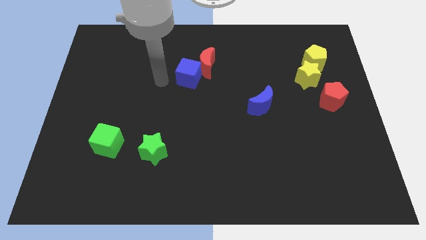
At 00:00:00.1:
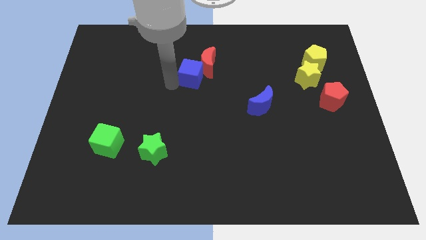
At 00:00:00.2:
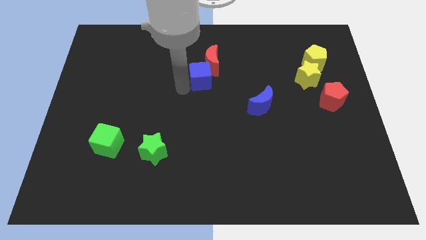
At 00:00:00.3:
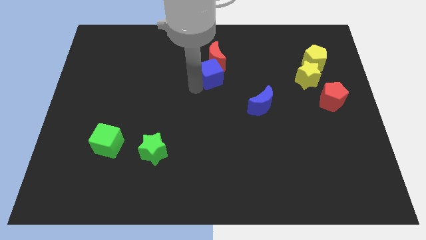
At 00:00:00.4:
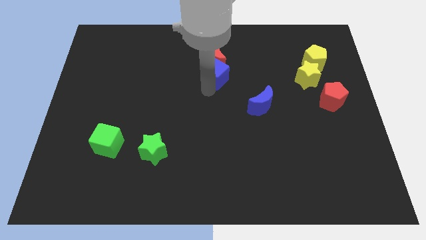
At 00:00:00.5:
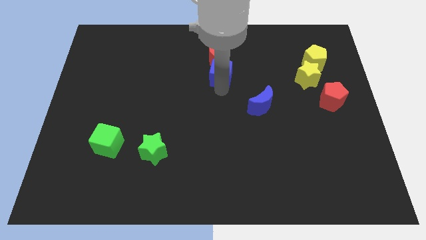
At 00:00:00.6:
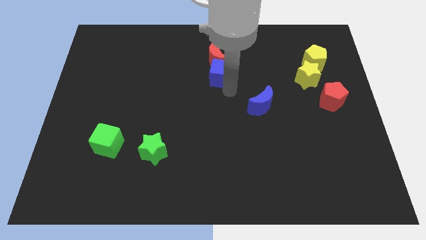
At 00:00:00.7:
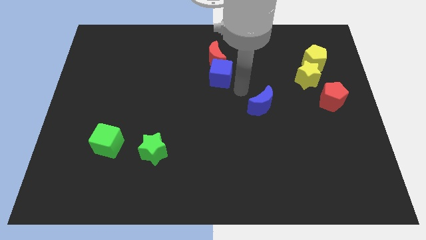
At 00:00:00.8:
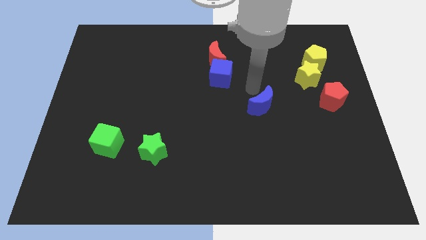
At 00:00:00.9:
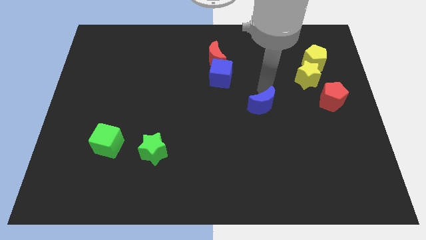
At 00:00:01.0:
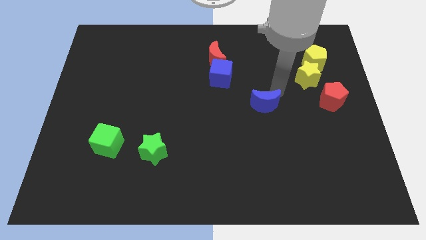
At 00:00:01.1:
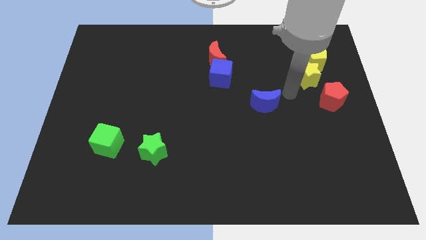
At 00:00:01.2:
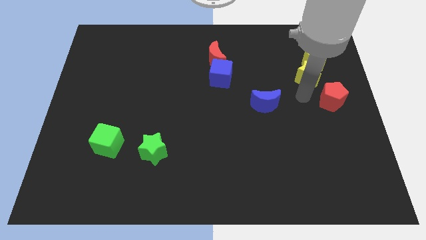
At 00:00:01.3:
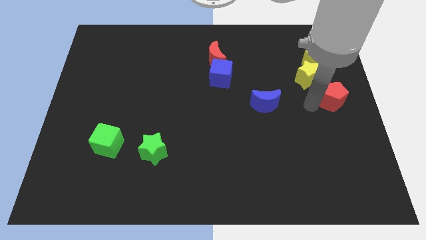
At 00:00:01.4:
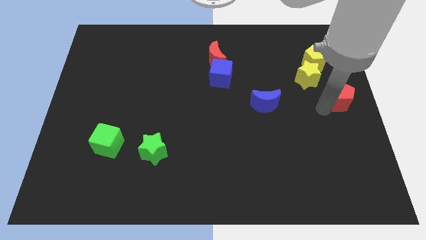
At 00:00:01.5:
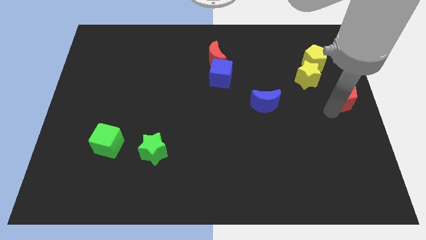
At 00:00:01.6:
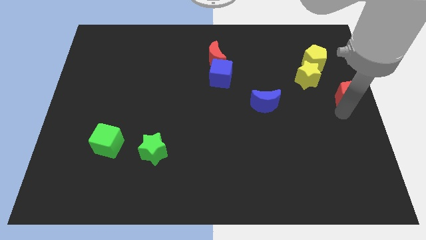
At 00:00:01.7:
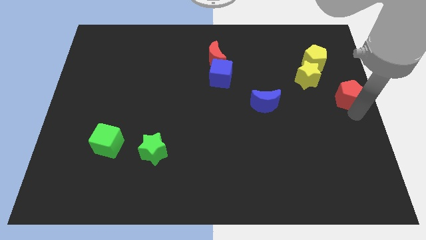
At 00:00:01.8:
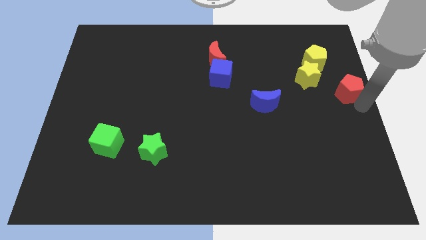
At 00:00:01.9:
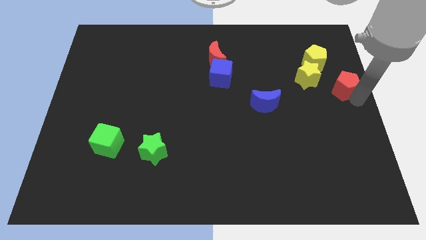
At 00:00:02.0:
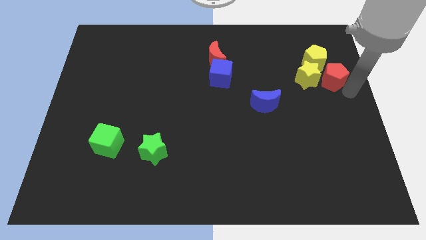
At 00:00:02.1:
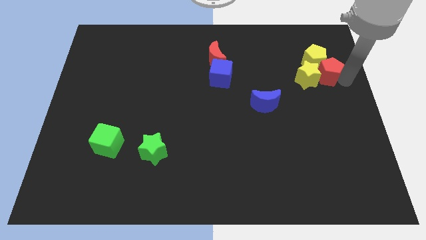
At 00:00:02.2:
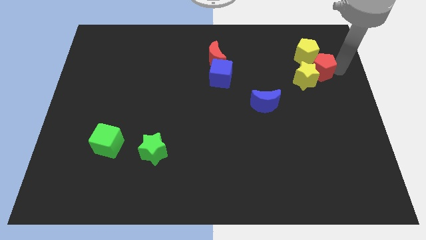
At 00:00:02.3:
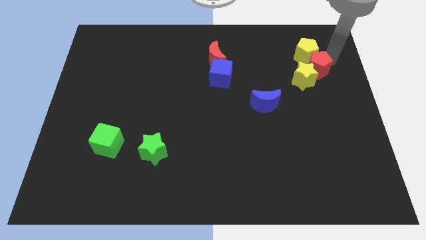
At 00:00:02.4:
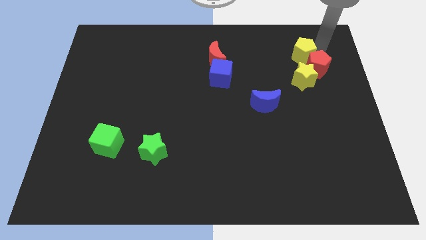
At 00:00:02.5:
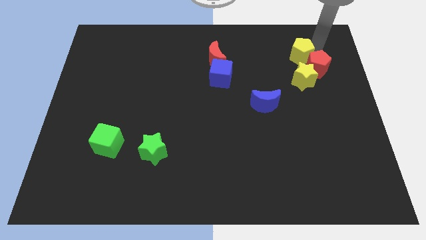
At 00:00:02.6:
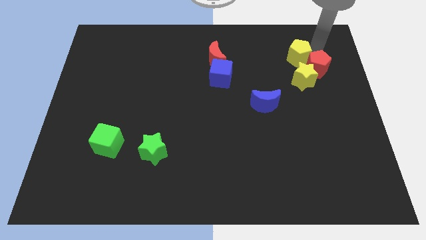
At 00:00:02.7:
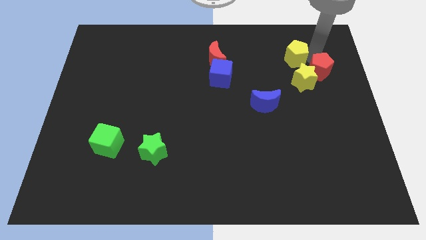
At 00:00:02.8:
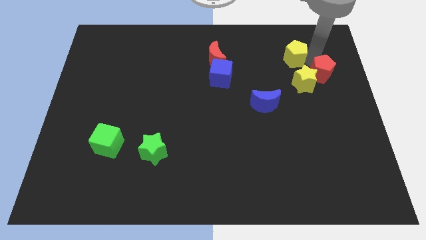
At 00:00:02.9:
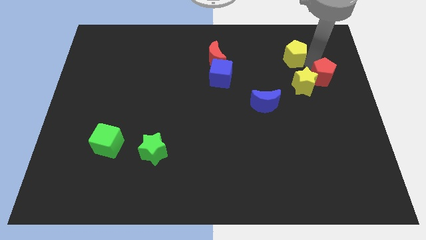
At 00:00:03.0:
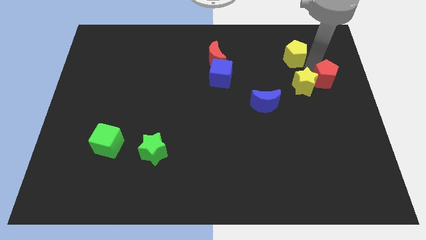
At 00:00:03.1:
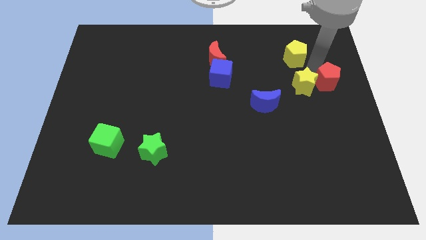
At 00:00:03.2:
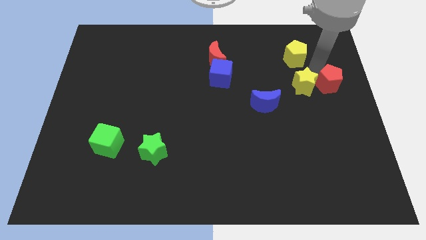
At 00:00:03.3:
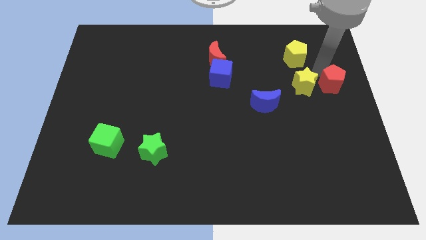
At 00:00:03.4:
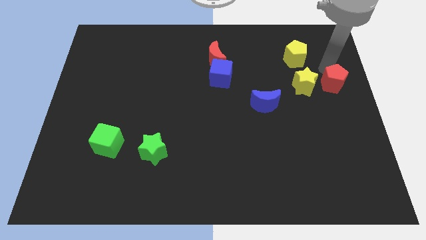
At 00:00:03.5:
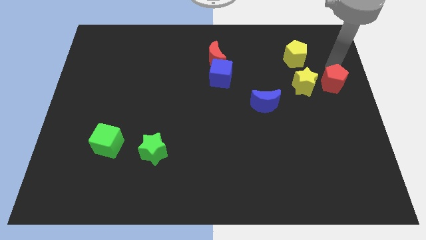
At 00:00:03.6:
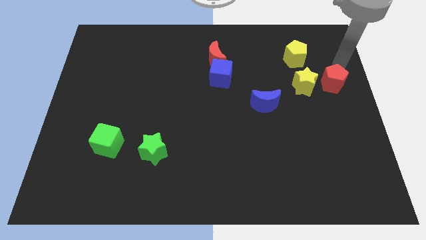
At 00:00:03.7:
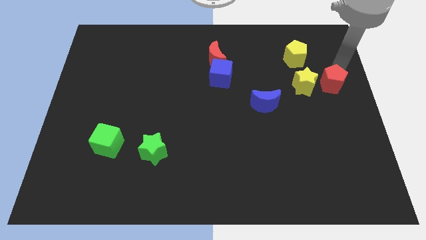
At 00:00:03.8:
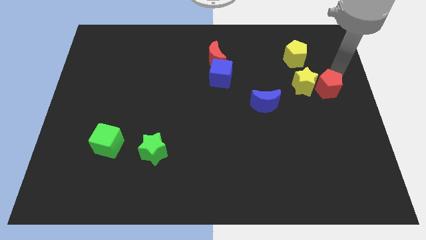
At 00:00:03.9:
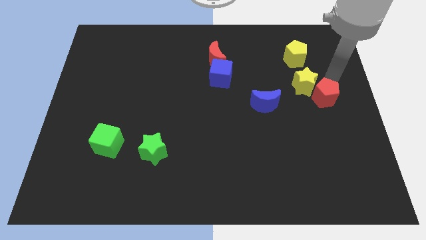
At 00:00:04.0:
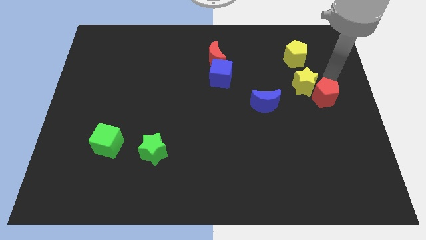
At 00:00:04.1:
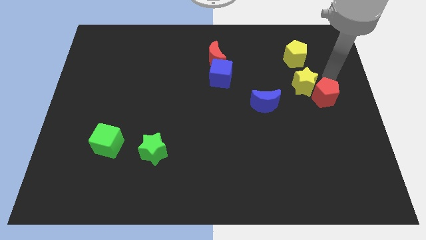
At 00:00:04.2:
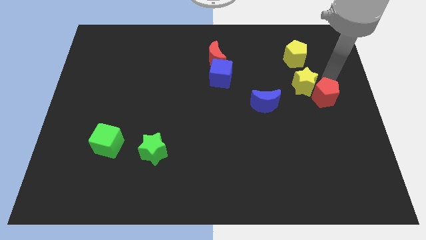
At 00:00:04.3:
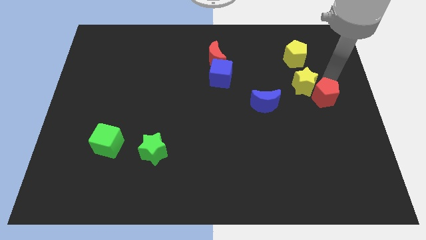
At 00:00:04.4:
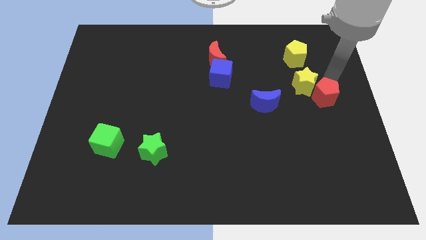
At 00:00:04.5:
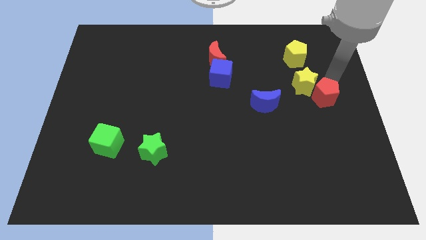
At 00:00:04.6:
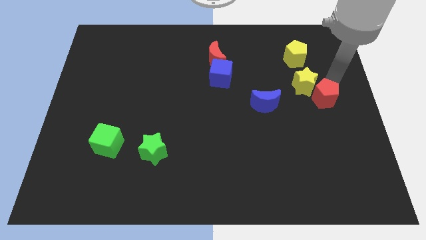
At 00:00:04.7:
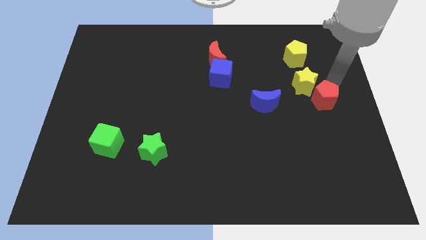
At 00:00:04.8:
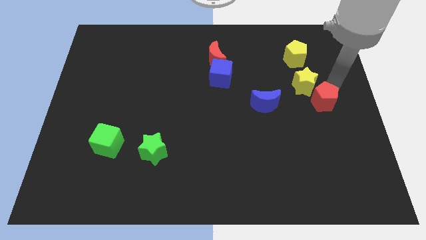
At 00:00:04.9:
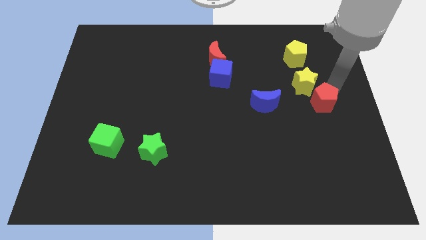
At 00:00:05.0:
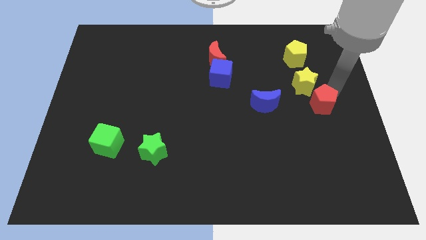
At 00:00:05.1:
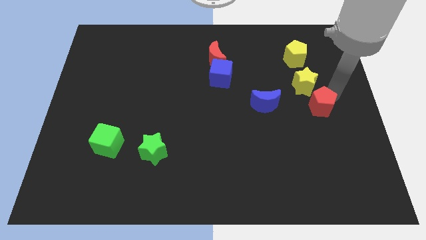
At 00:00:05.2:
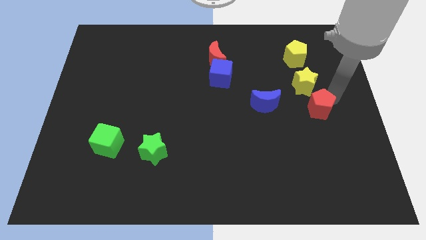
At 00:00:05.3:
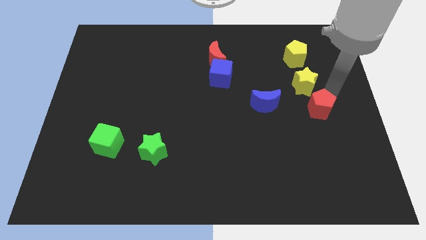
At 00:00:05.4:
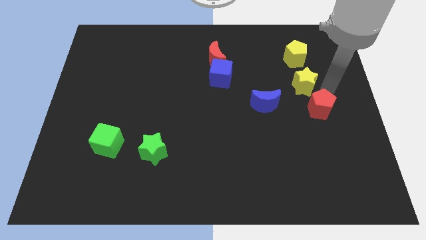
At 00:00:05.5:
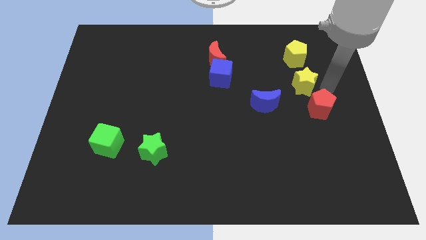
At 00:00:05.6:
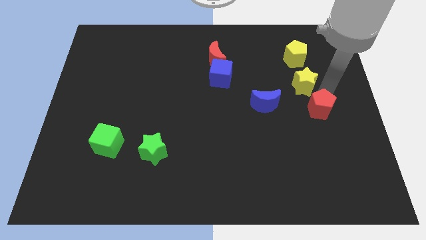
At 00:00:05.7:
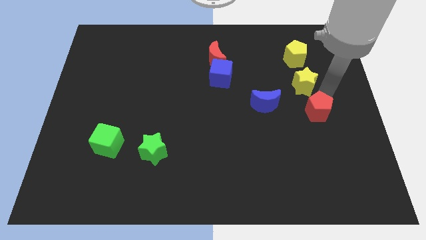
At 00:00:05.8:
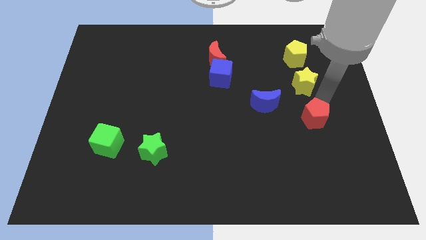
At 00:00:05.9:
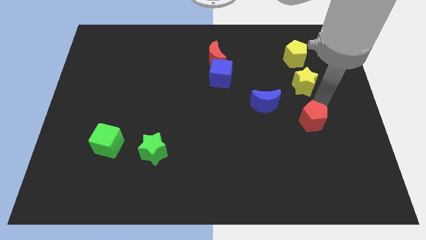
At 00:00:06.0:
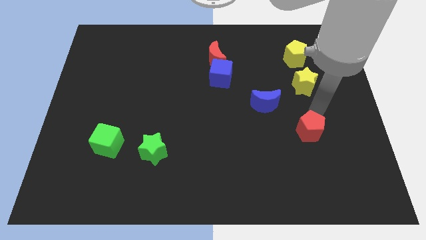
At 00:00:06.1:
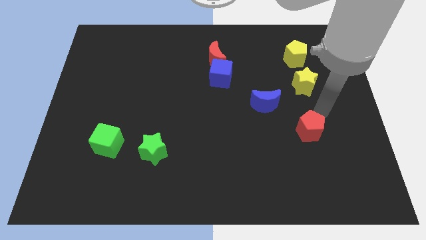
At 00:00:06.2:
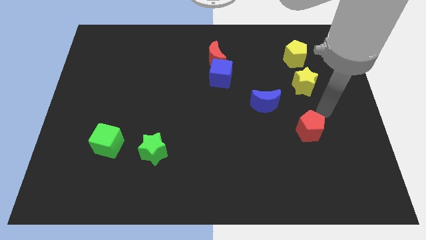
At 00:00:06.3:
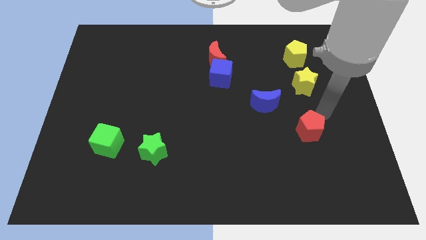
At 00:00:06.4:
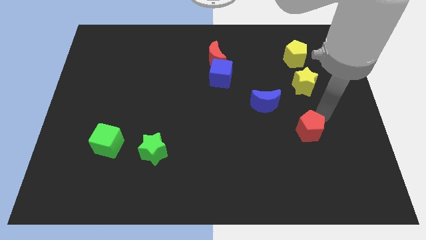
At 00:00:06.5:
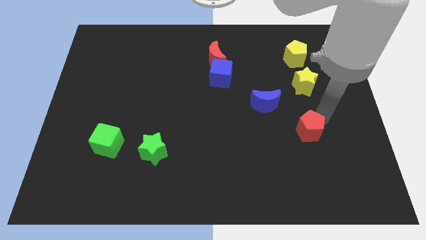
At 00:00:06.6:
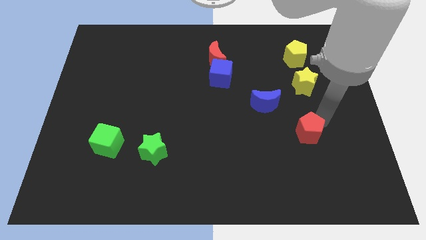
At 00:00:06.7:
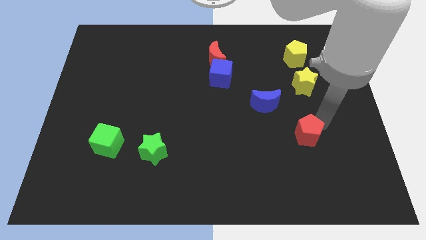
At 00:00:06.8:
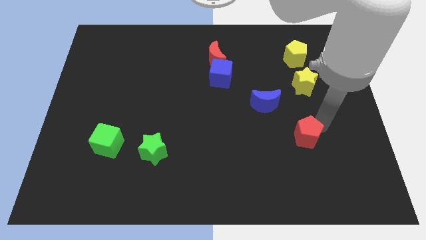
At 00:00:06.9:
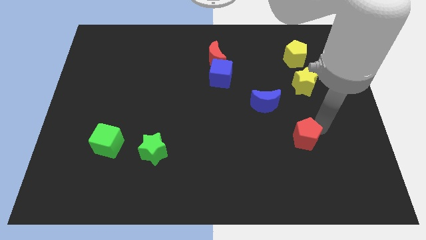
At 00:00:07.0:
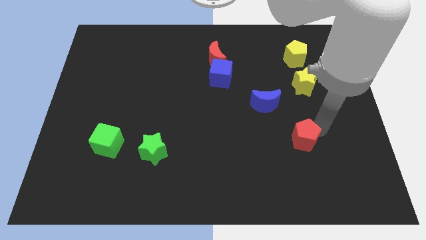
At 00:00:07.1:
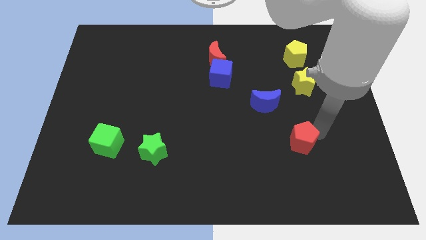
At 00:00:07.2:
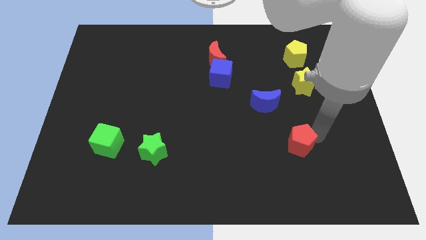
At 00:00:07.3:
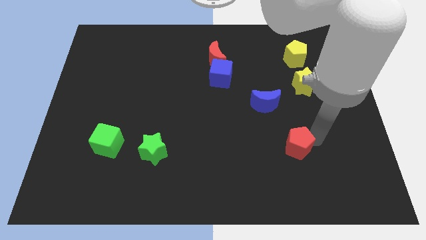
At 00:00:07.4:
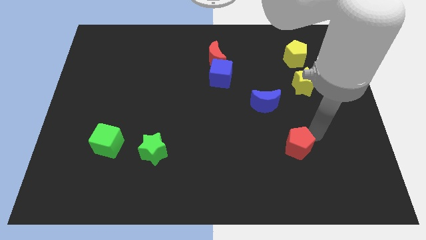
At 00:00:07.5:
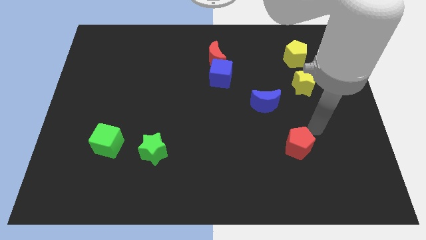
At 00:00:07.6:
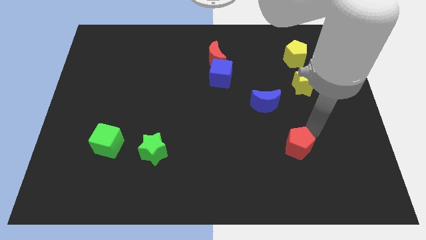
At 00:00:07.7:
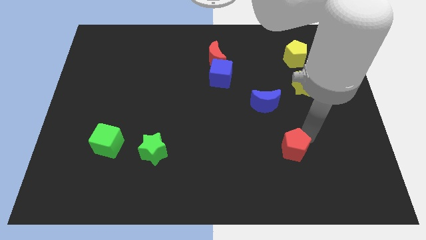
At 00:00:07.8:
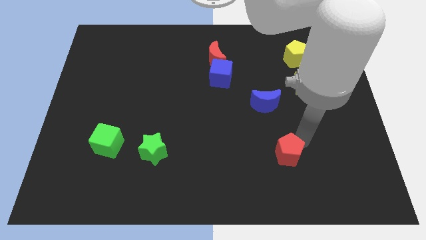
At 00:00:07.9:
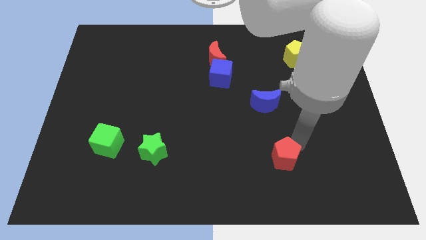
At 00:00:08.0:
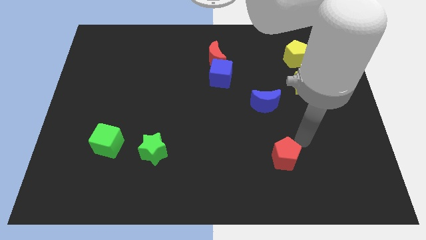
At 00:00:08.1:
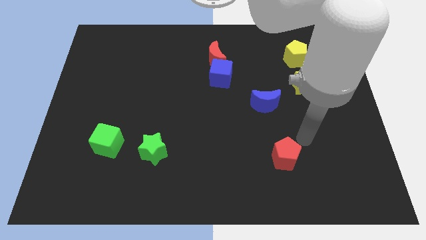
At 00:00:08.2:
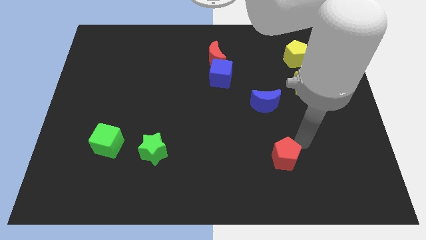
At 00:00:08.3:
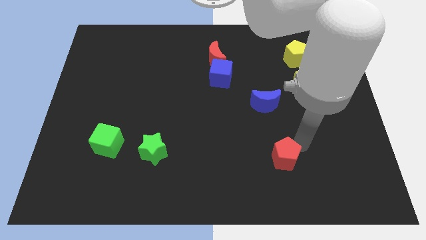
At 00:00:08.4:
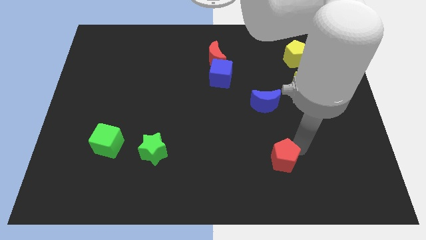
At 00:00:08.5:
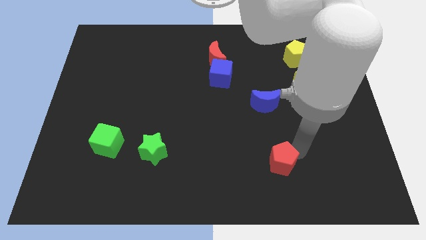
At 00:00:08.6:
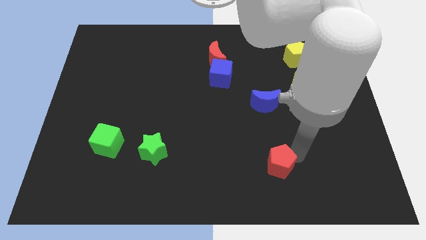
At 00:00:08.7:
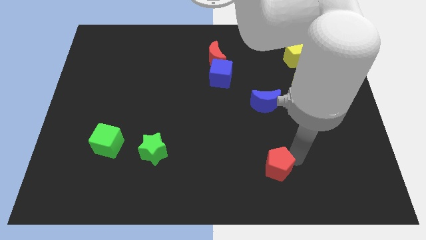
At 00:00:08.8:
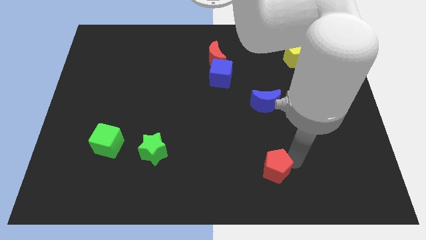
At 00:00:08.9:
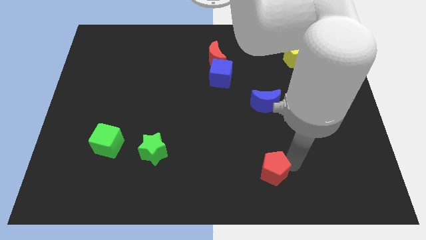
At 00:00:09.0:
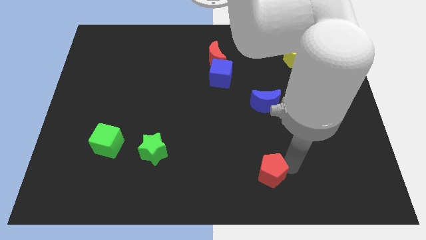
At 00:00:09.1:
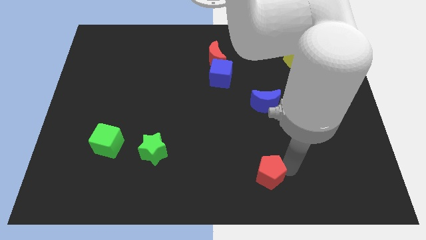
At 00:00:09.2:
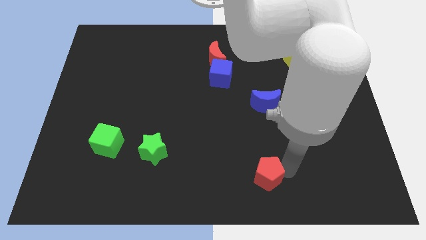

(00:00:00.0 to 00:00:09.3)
push the red pentagon to the bottom side
